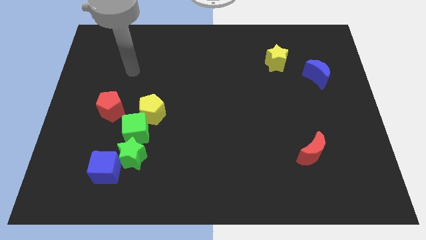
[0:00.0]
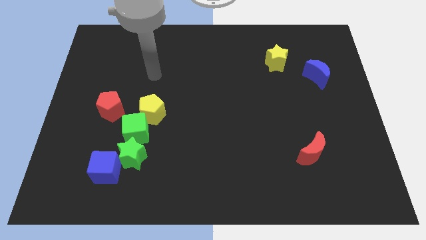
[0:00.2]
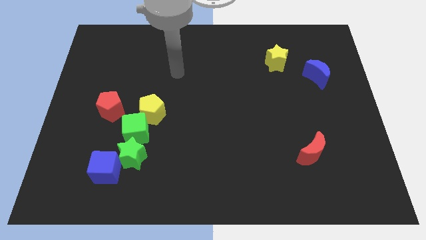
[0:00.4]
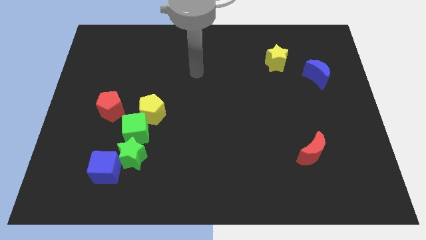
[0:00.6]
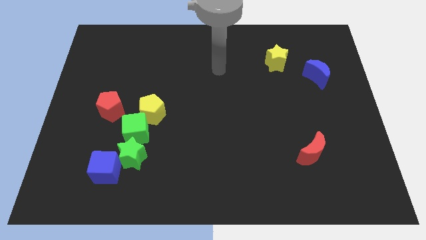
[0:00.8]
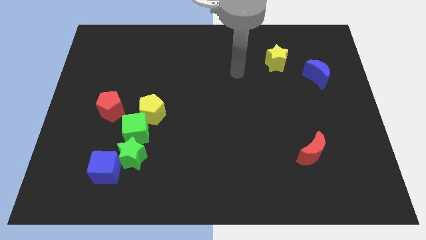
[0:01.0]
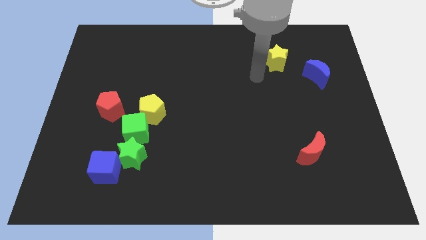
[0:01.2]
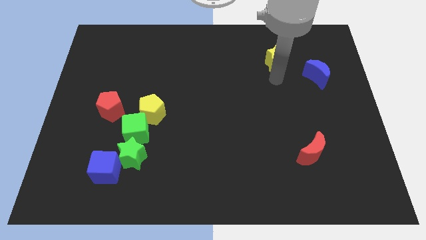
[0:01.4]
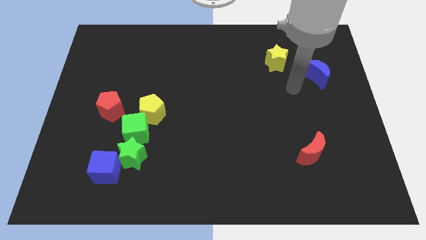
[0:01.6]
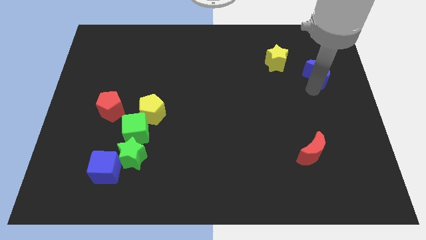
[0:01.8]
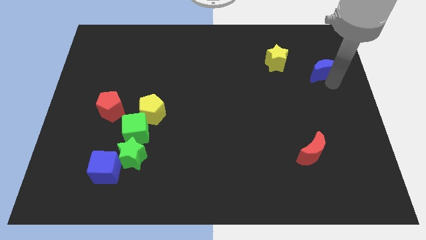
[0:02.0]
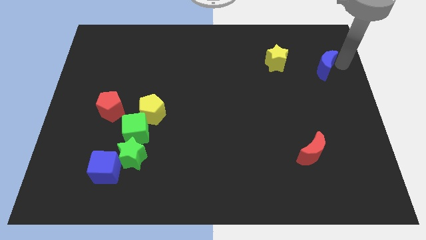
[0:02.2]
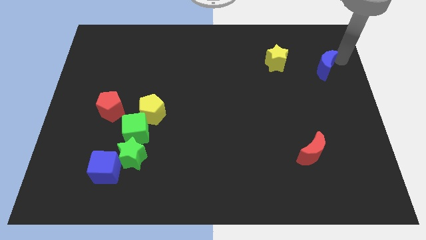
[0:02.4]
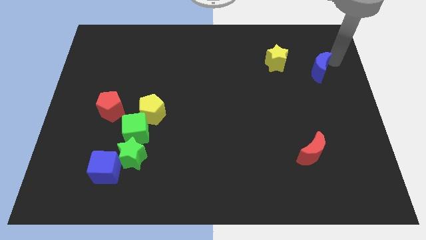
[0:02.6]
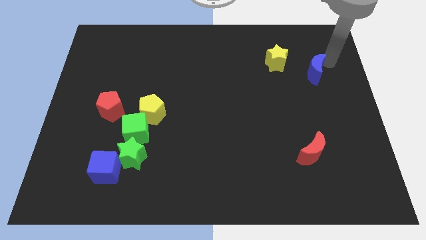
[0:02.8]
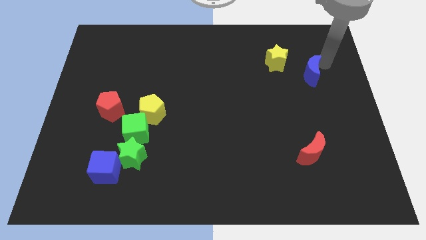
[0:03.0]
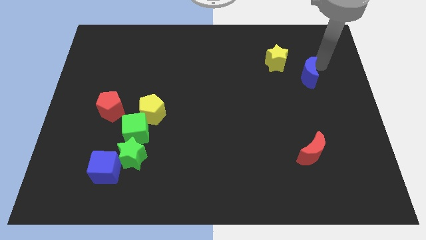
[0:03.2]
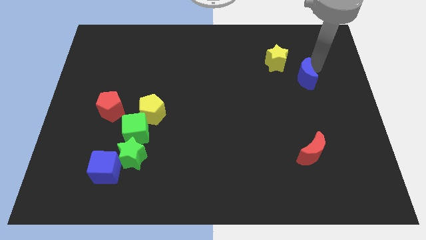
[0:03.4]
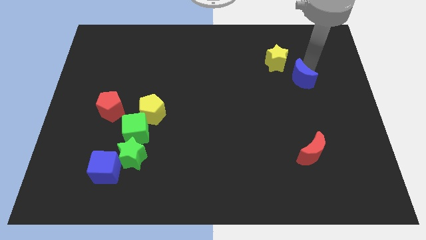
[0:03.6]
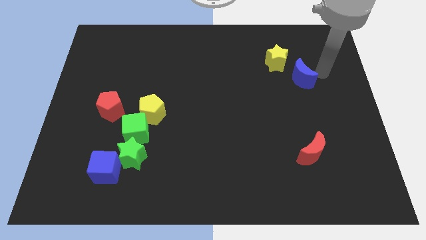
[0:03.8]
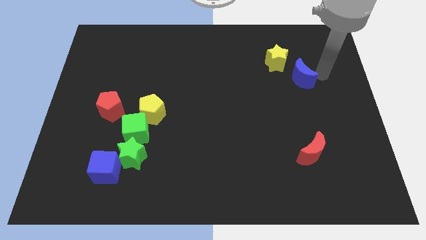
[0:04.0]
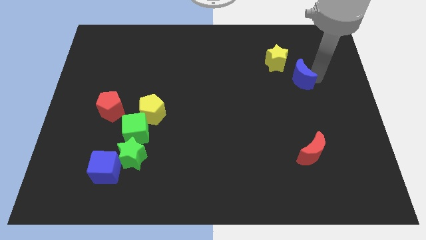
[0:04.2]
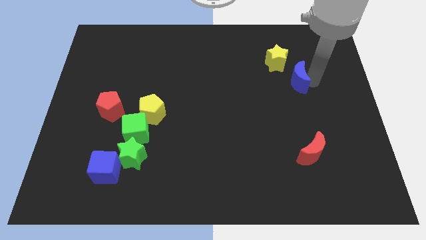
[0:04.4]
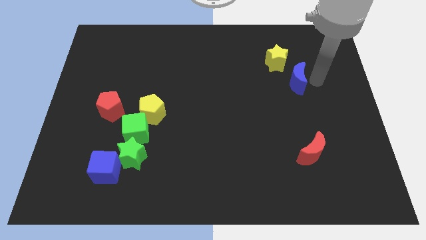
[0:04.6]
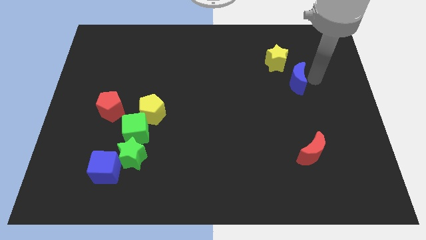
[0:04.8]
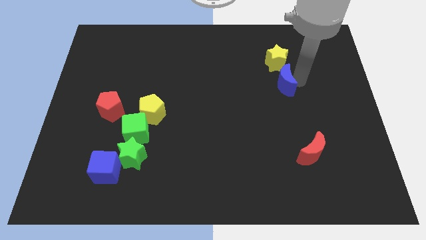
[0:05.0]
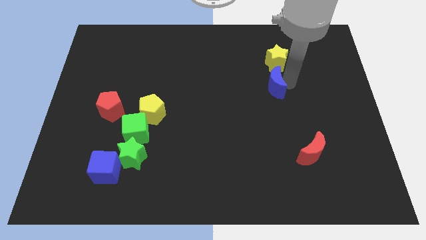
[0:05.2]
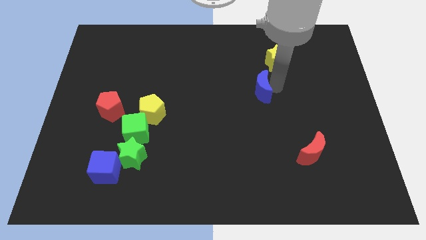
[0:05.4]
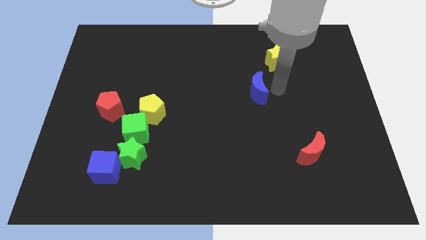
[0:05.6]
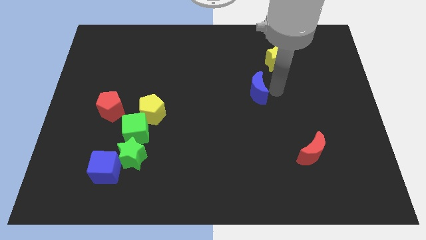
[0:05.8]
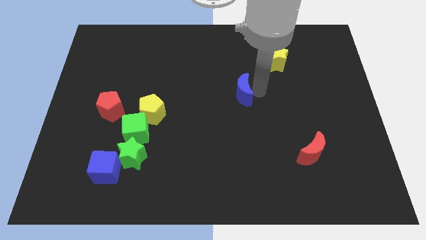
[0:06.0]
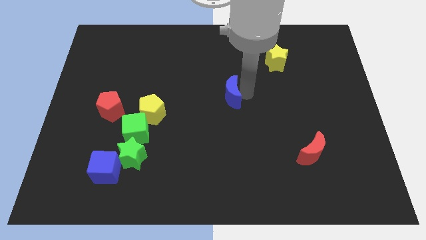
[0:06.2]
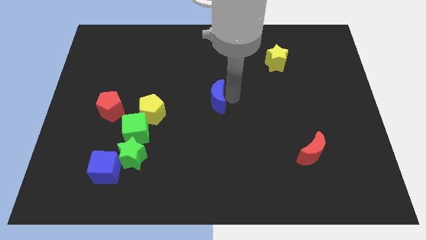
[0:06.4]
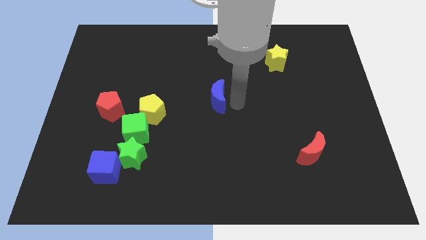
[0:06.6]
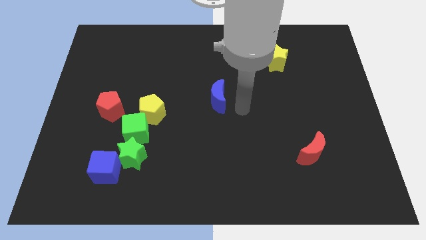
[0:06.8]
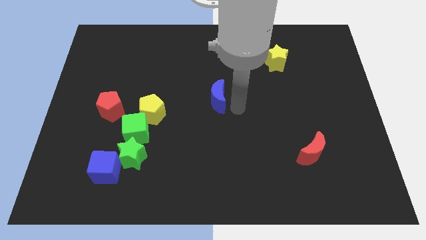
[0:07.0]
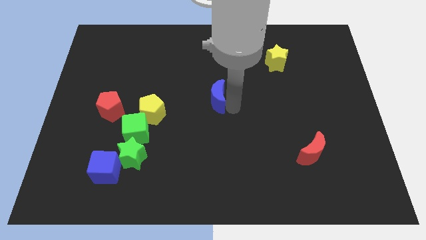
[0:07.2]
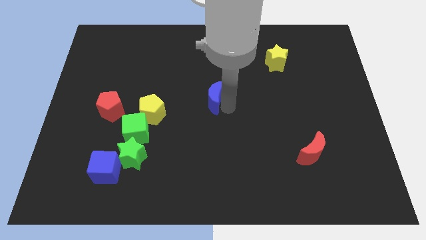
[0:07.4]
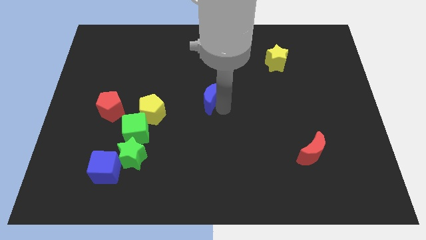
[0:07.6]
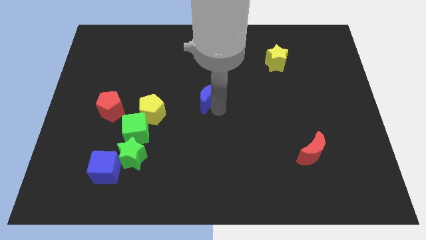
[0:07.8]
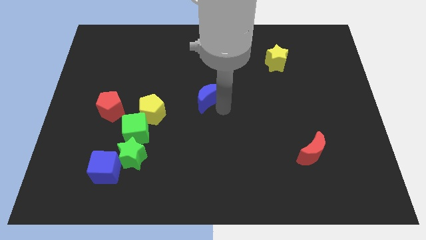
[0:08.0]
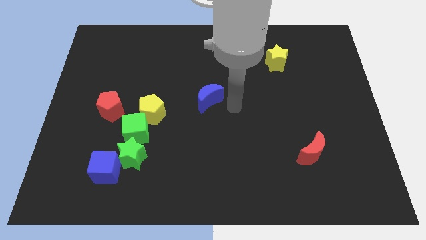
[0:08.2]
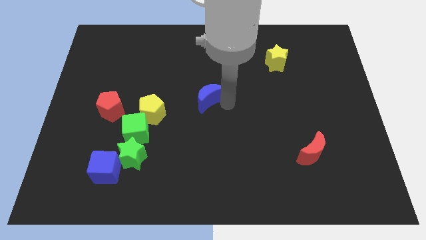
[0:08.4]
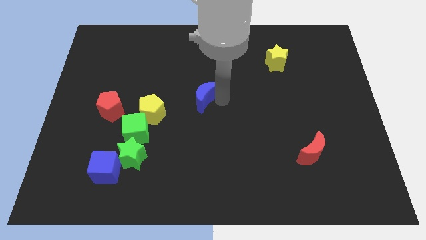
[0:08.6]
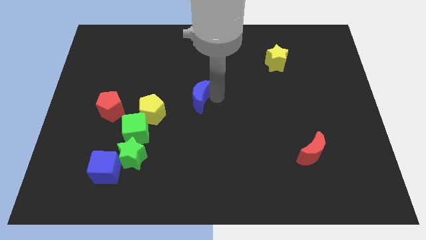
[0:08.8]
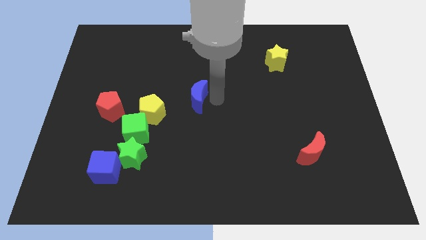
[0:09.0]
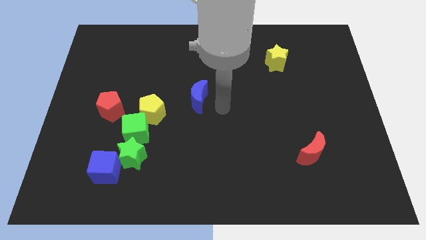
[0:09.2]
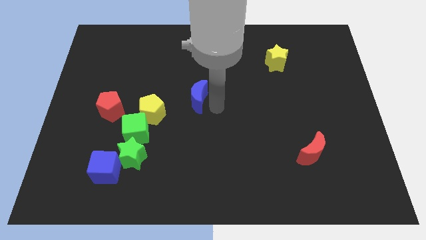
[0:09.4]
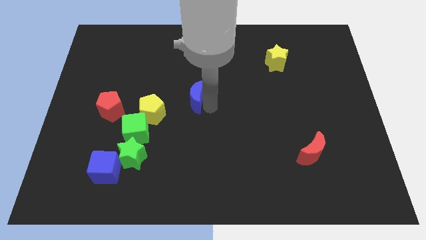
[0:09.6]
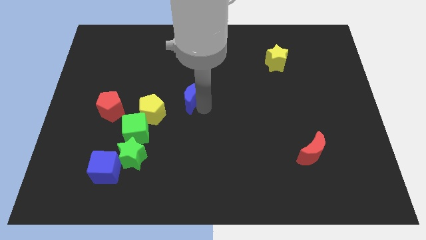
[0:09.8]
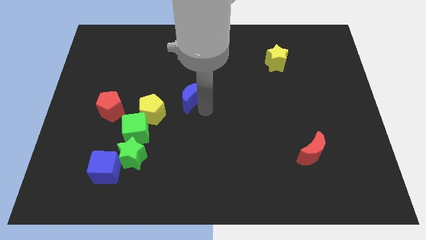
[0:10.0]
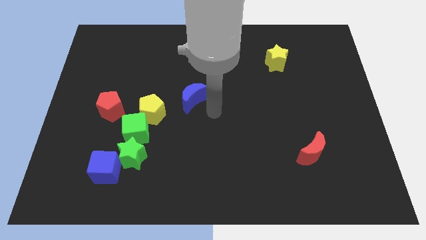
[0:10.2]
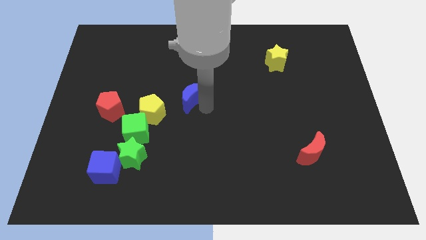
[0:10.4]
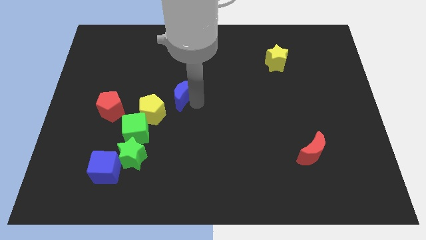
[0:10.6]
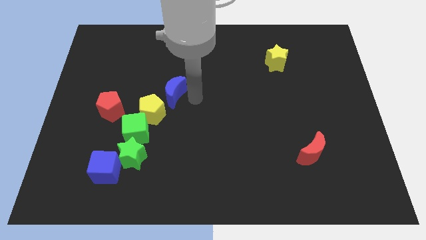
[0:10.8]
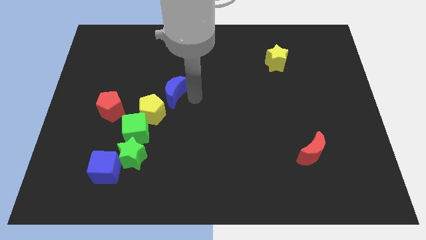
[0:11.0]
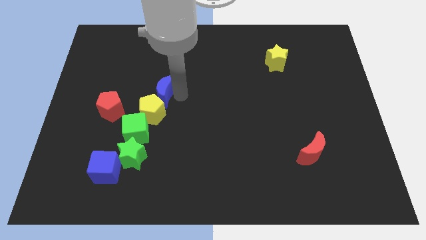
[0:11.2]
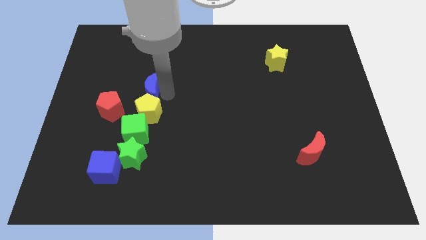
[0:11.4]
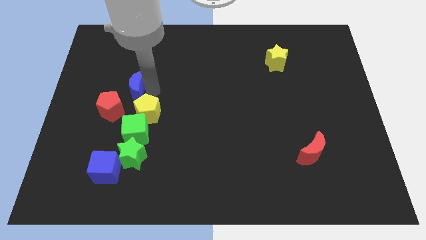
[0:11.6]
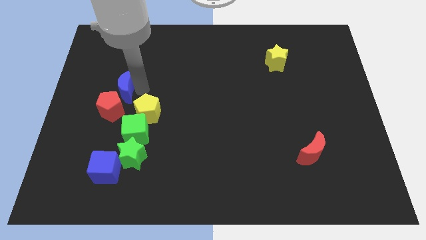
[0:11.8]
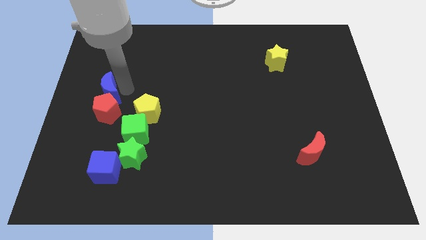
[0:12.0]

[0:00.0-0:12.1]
push the blue moon to the left side of the board
